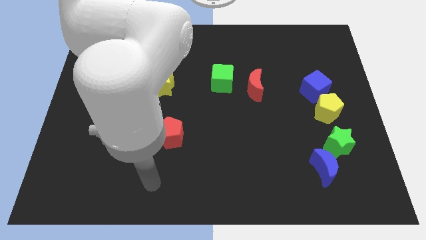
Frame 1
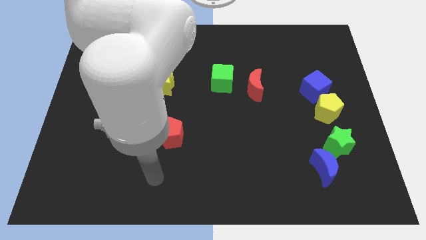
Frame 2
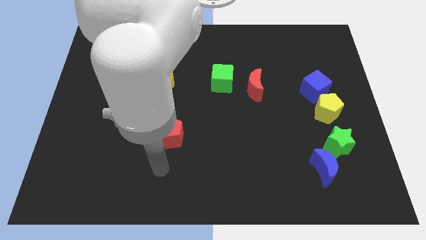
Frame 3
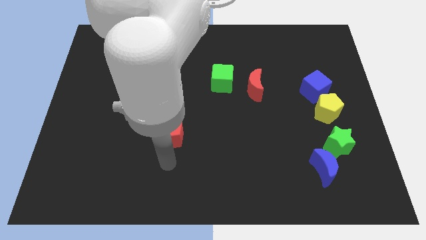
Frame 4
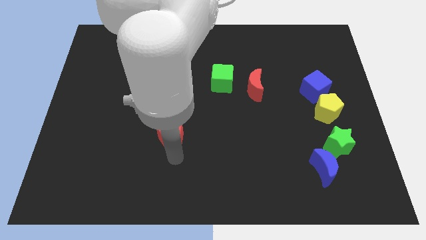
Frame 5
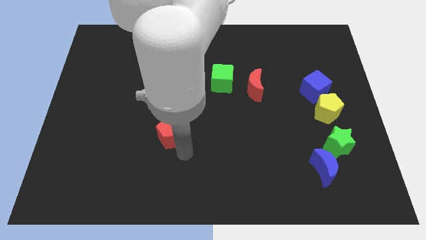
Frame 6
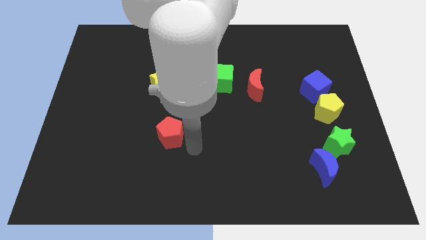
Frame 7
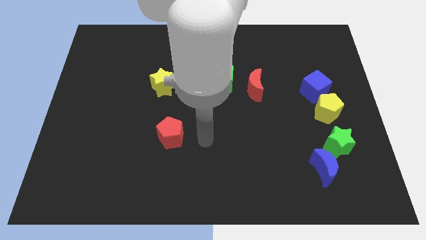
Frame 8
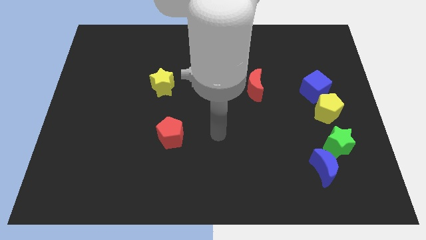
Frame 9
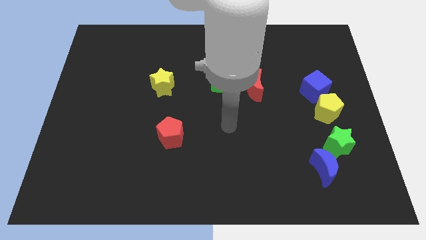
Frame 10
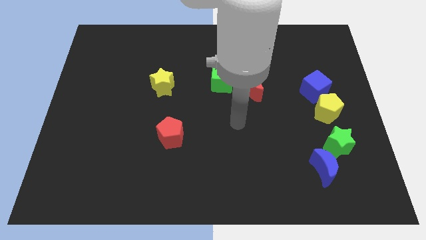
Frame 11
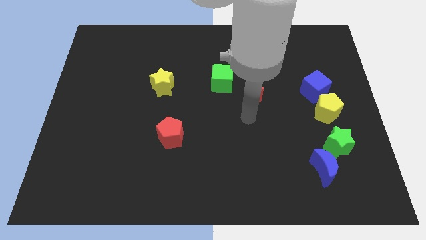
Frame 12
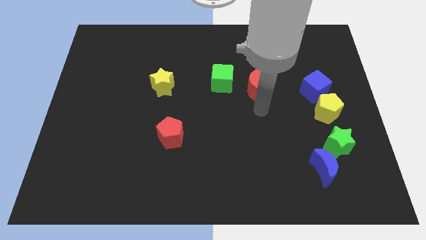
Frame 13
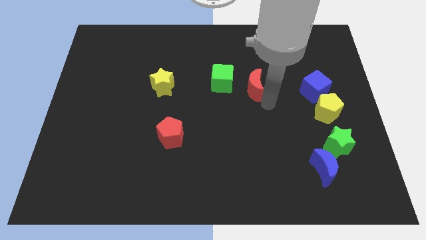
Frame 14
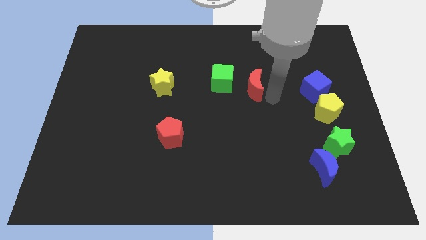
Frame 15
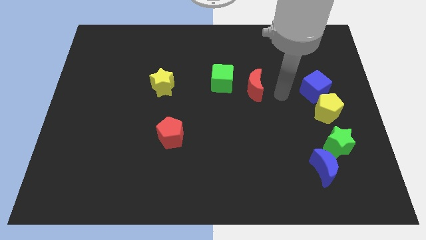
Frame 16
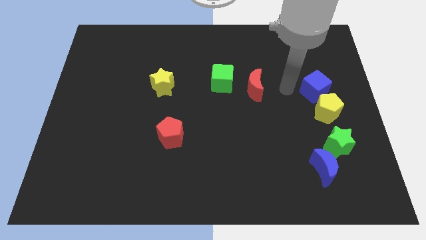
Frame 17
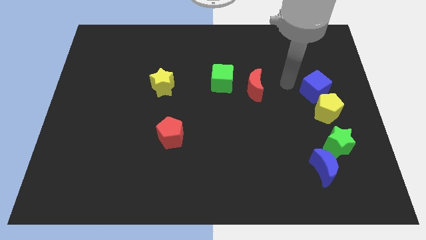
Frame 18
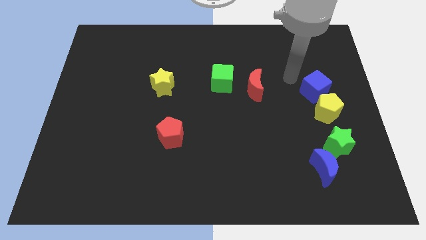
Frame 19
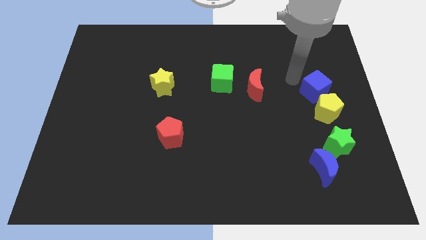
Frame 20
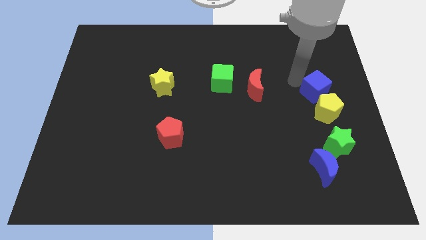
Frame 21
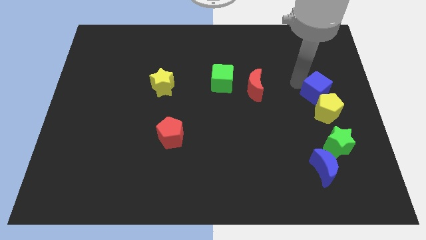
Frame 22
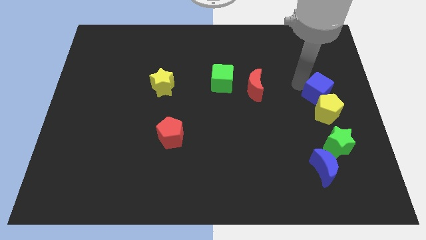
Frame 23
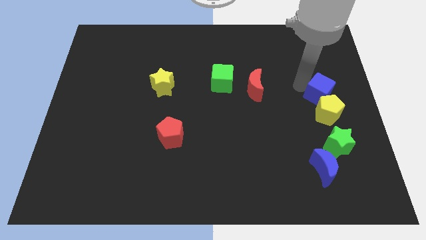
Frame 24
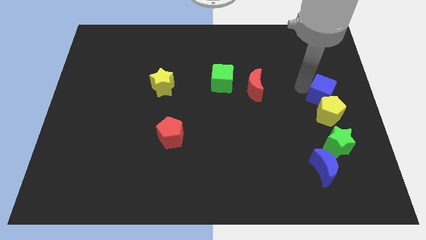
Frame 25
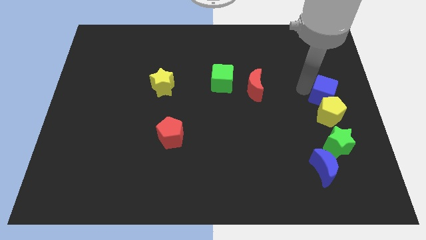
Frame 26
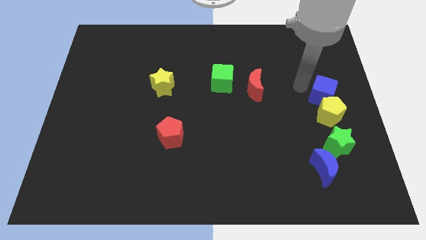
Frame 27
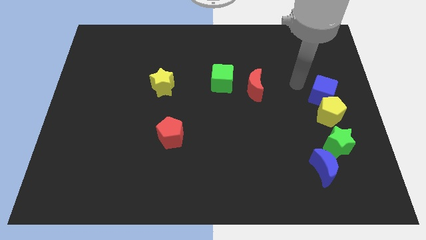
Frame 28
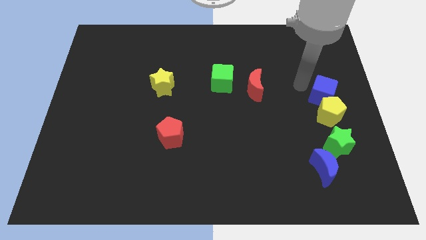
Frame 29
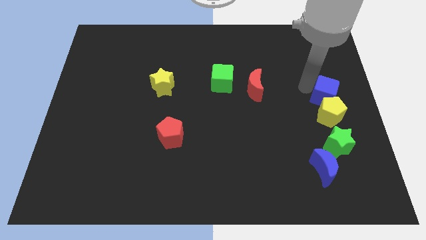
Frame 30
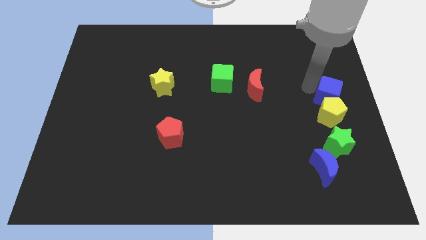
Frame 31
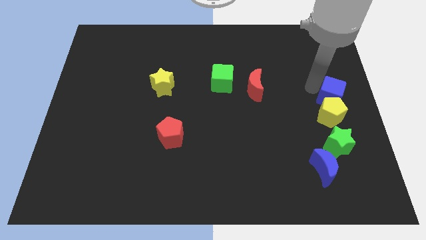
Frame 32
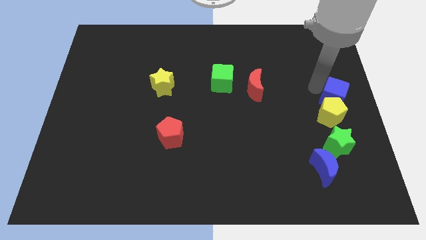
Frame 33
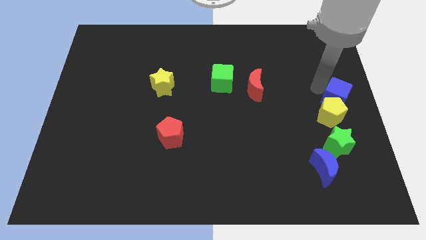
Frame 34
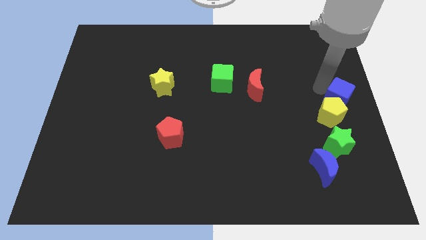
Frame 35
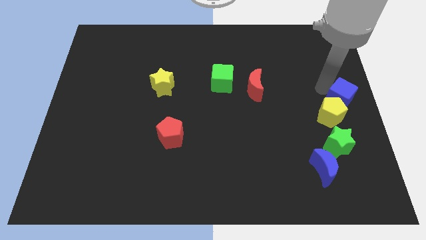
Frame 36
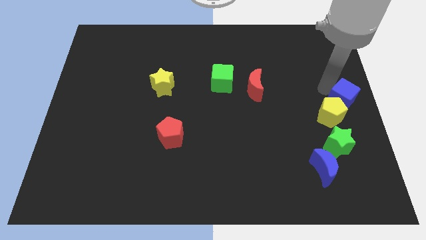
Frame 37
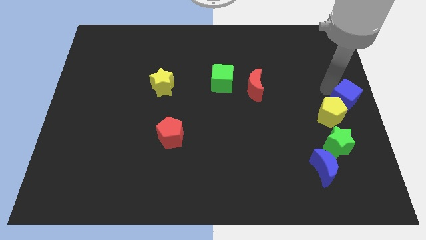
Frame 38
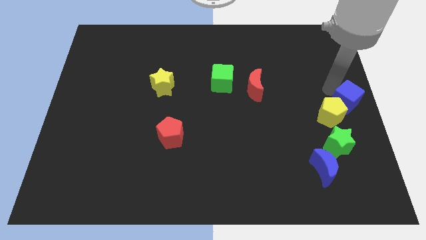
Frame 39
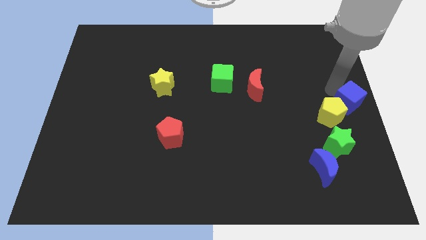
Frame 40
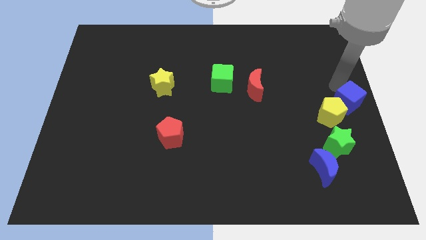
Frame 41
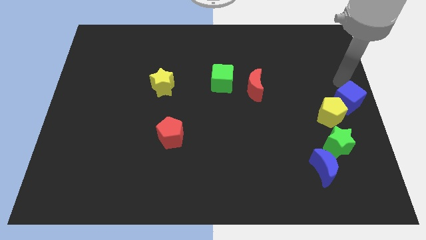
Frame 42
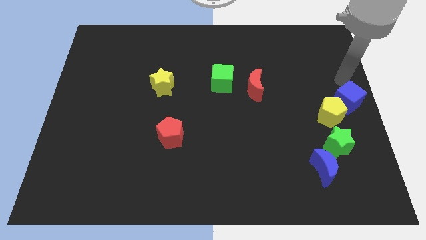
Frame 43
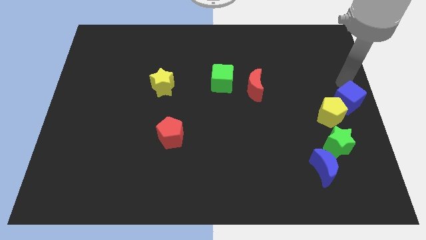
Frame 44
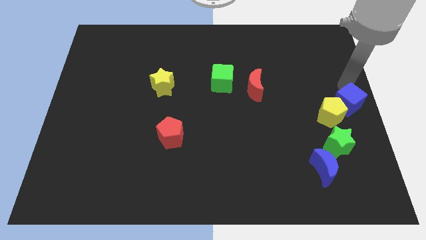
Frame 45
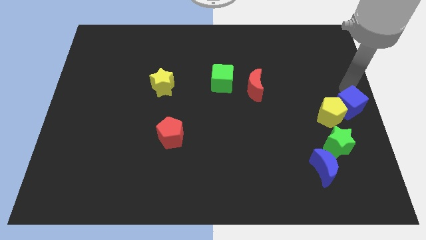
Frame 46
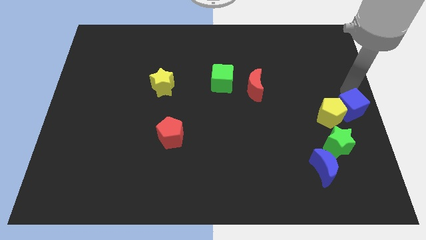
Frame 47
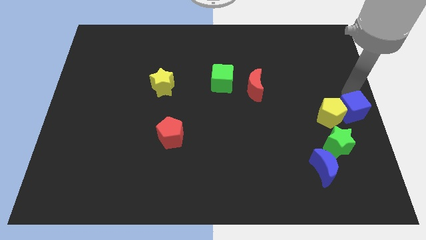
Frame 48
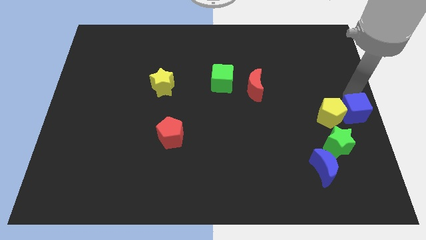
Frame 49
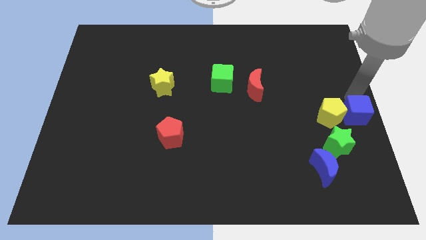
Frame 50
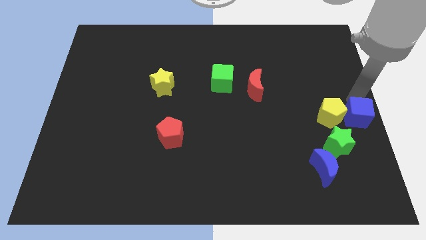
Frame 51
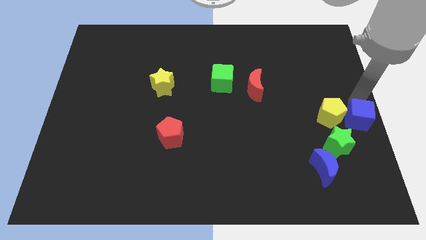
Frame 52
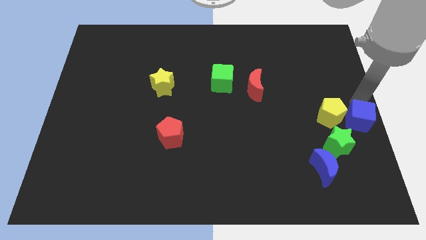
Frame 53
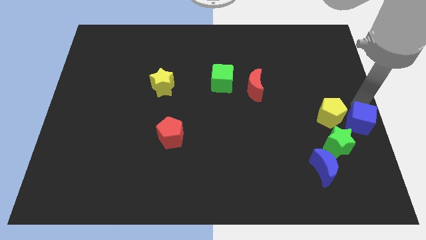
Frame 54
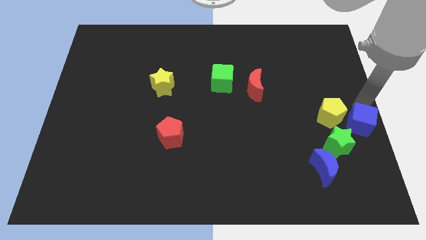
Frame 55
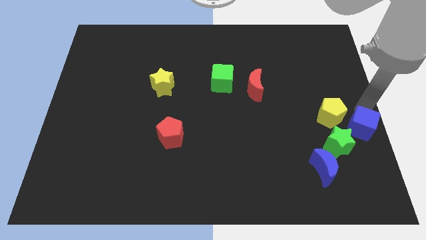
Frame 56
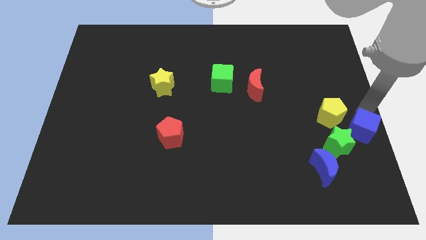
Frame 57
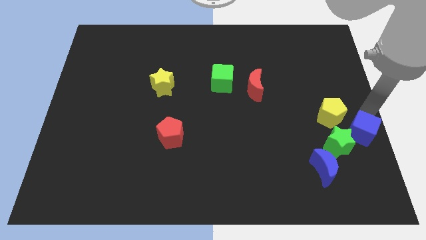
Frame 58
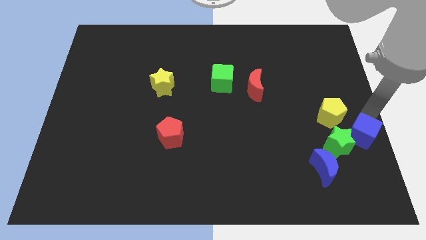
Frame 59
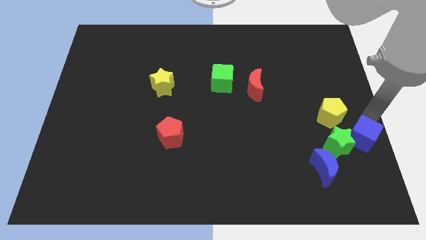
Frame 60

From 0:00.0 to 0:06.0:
push the blue cube diagonally up and to the right of the blue moon

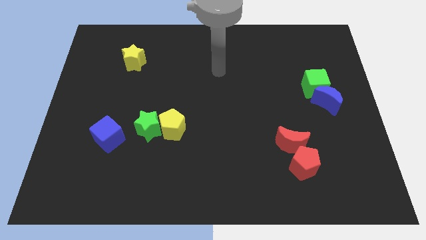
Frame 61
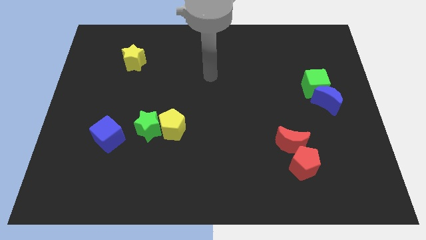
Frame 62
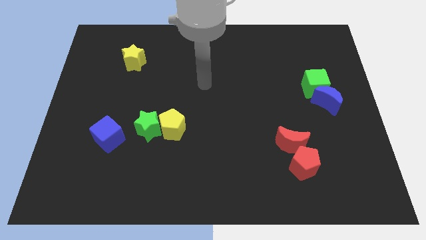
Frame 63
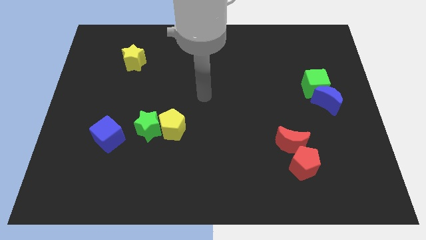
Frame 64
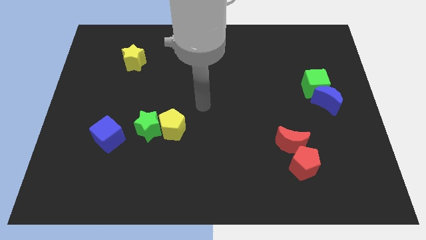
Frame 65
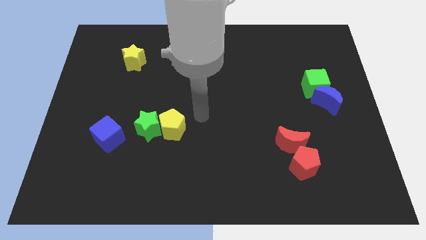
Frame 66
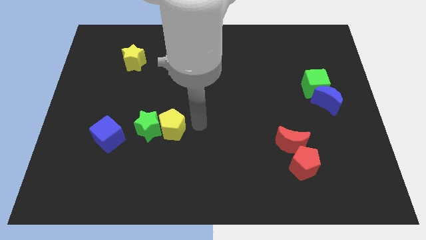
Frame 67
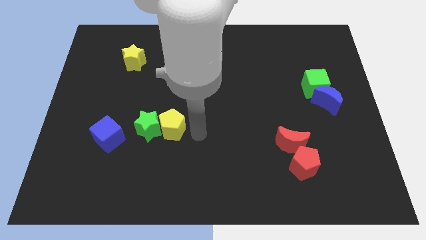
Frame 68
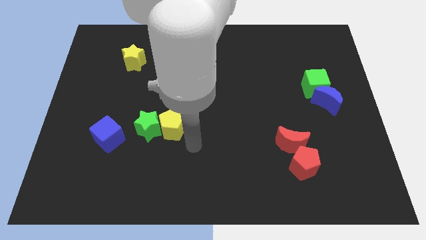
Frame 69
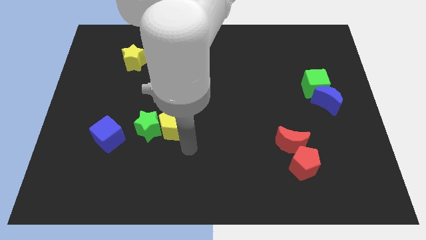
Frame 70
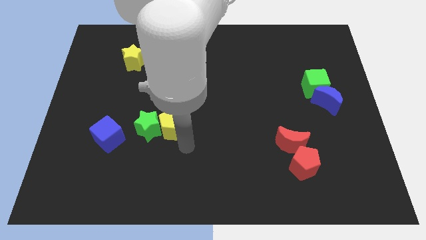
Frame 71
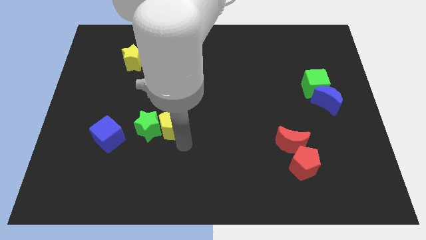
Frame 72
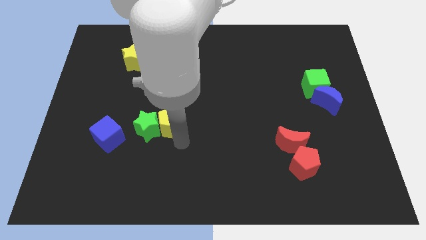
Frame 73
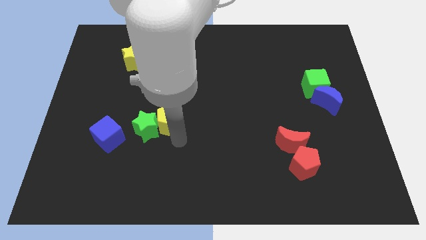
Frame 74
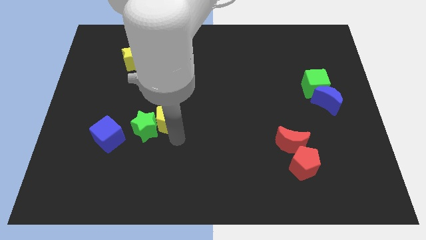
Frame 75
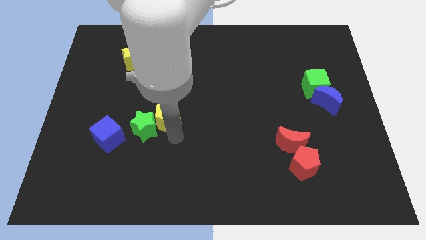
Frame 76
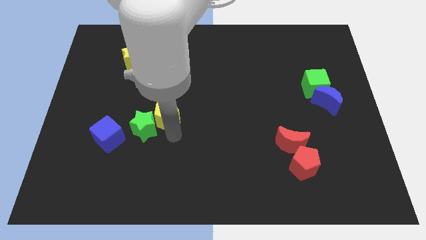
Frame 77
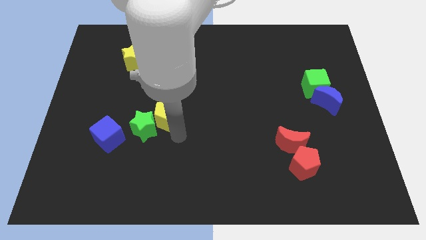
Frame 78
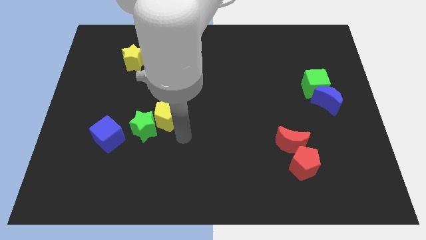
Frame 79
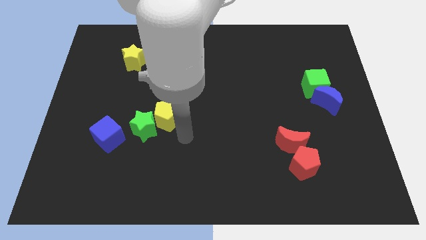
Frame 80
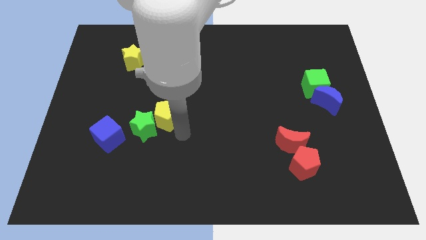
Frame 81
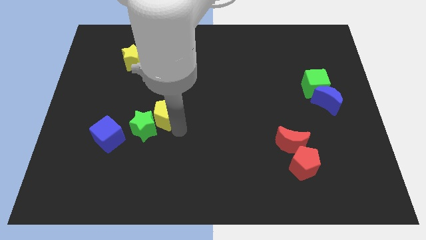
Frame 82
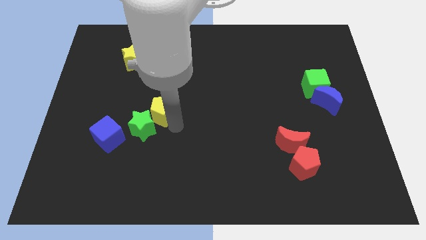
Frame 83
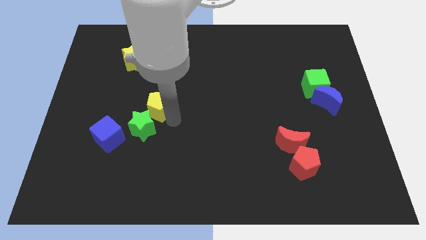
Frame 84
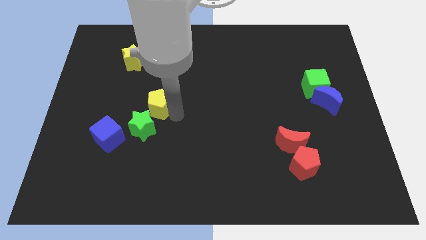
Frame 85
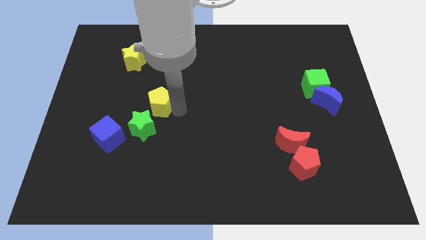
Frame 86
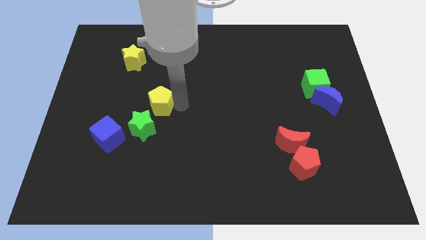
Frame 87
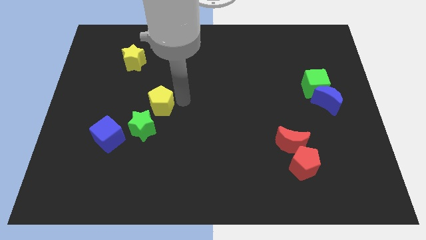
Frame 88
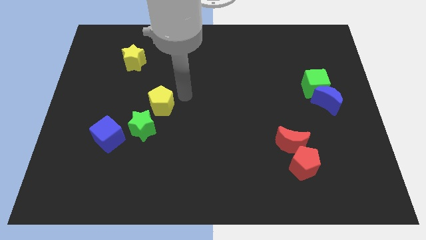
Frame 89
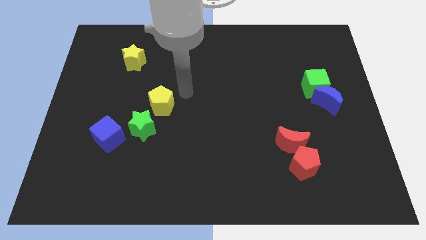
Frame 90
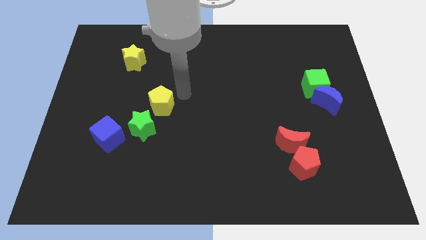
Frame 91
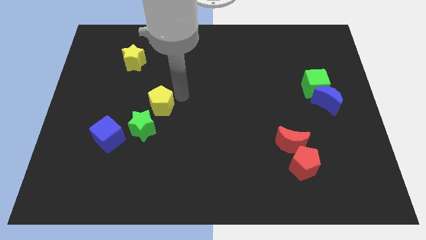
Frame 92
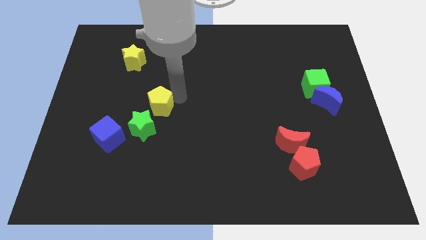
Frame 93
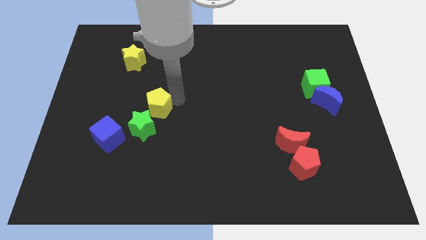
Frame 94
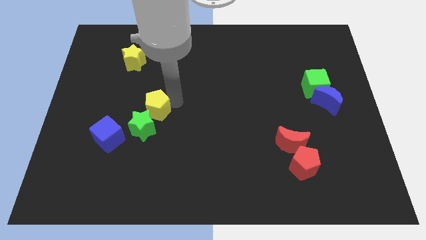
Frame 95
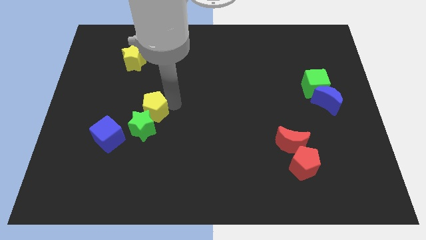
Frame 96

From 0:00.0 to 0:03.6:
slide the yellow pentagon to the top right of the blue cube
